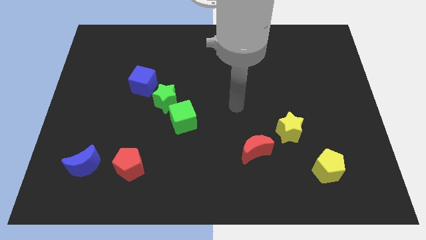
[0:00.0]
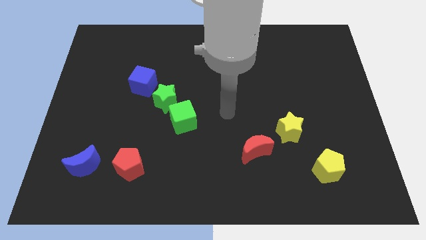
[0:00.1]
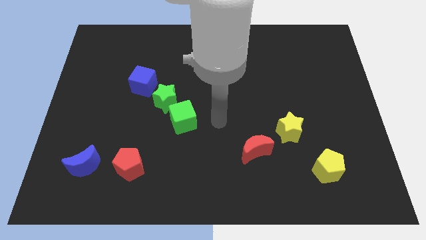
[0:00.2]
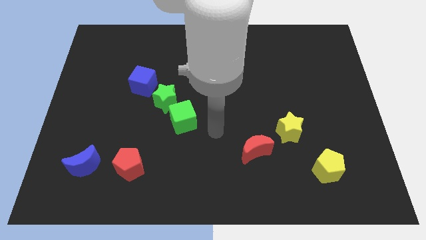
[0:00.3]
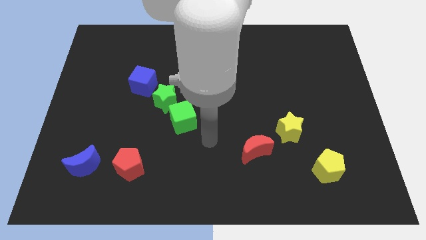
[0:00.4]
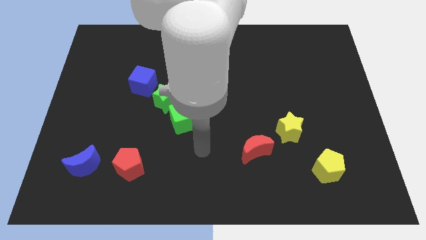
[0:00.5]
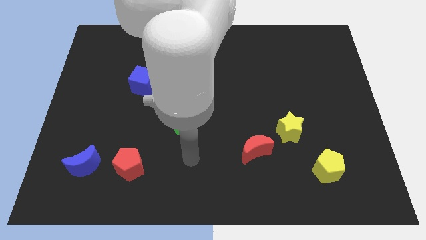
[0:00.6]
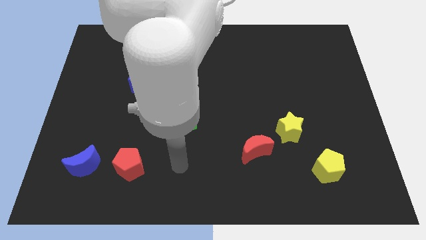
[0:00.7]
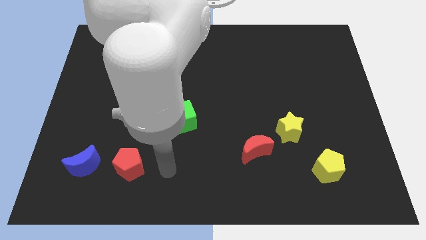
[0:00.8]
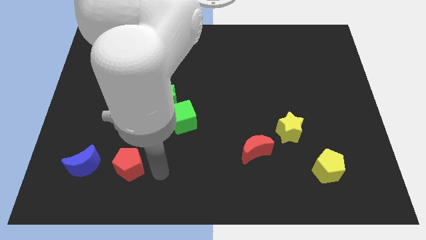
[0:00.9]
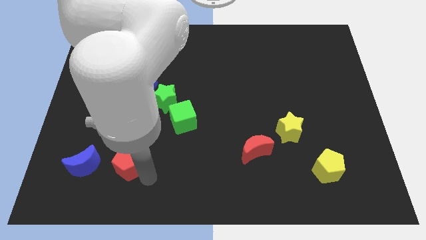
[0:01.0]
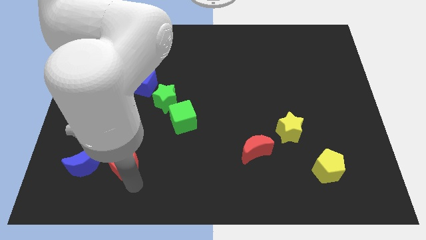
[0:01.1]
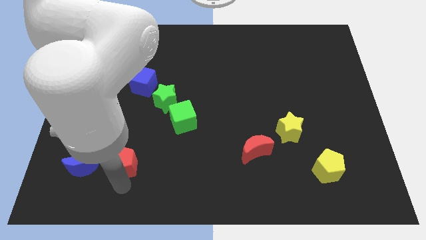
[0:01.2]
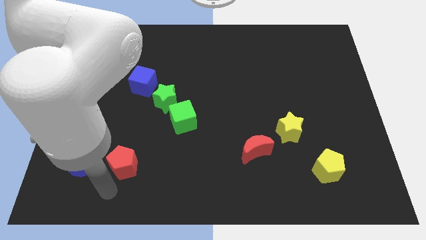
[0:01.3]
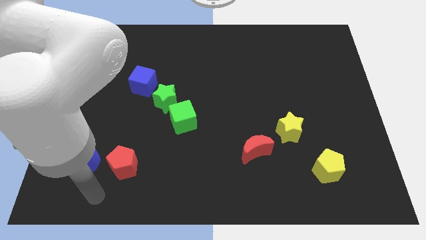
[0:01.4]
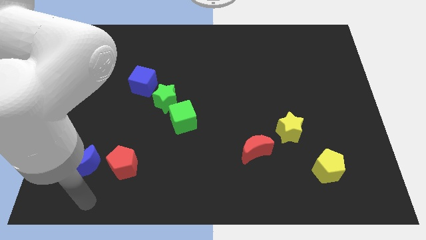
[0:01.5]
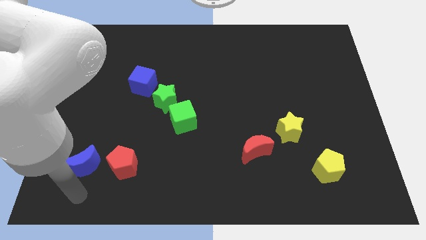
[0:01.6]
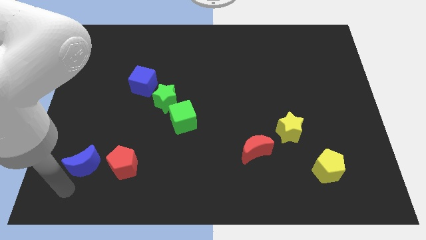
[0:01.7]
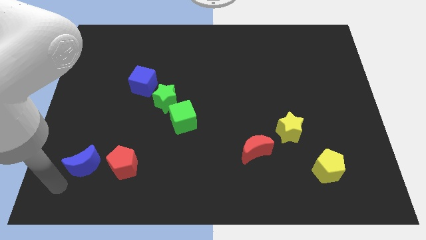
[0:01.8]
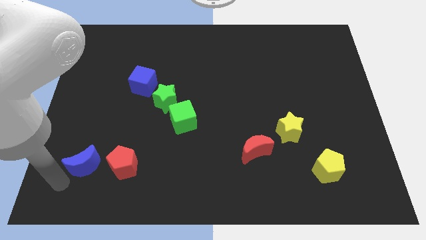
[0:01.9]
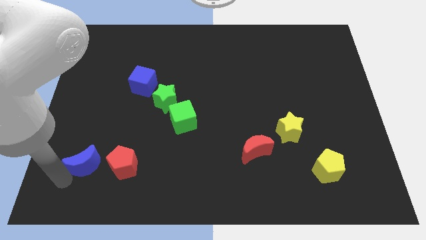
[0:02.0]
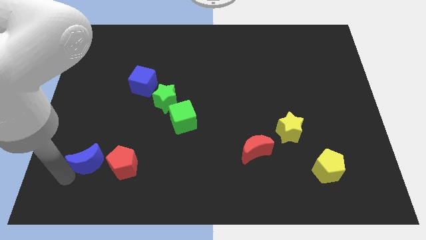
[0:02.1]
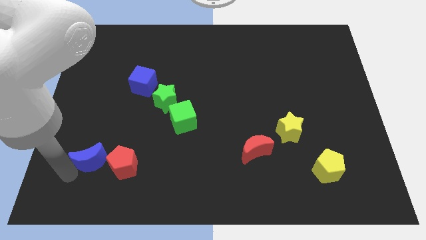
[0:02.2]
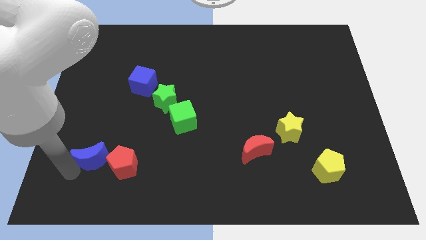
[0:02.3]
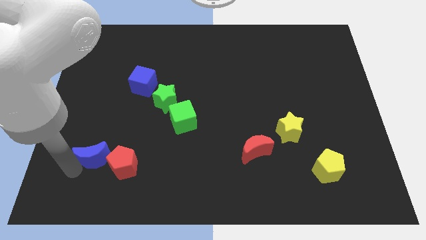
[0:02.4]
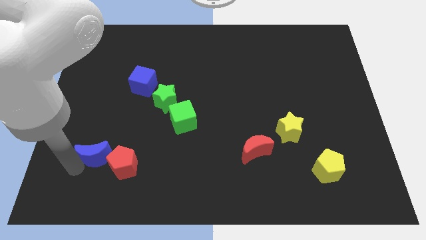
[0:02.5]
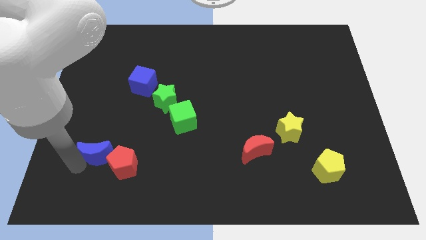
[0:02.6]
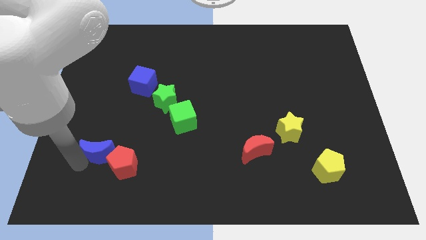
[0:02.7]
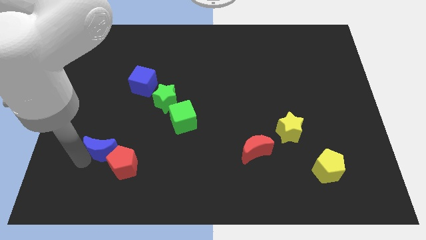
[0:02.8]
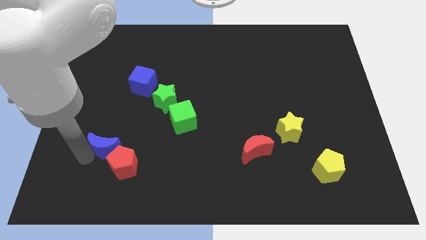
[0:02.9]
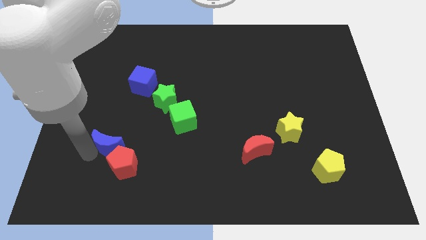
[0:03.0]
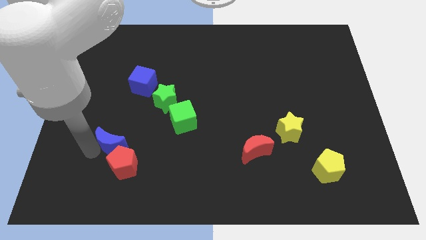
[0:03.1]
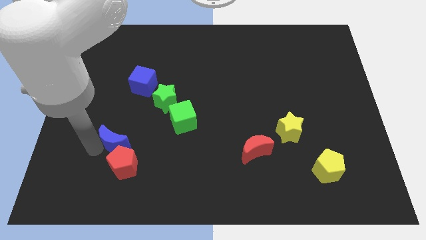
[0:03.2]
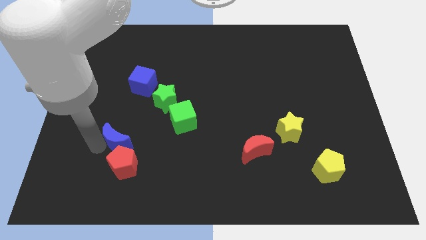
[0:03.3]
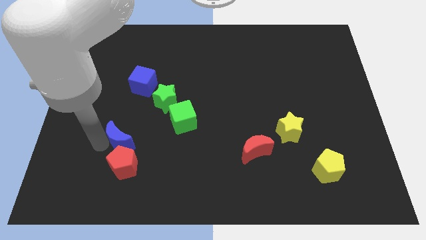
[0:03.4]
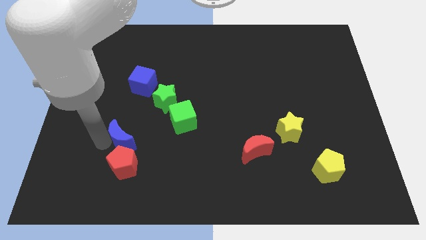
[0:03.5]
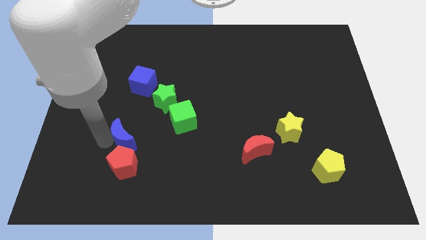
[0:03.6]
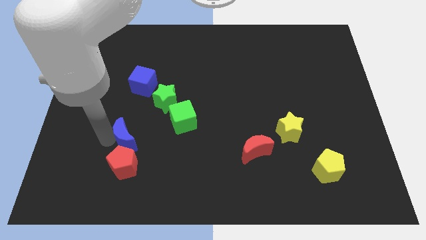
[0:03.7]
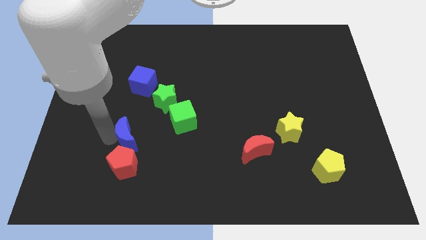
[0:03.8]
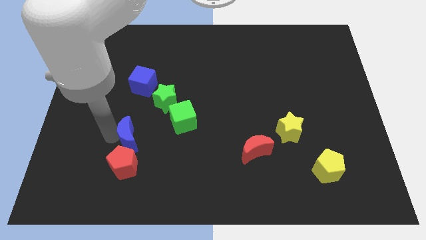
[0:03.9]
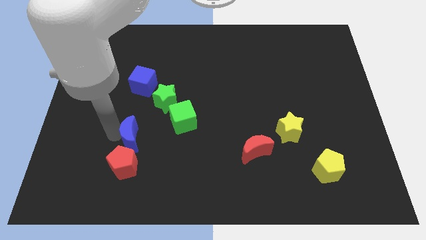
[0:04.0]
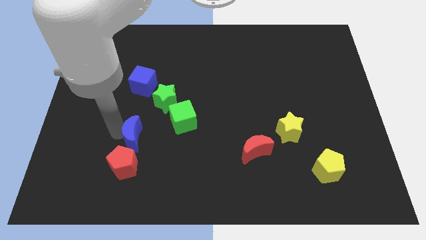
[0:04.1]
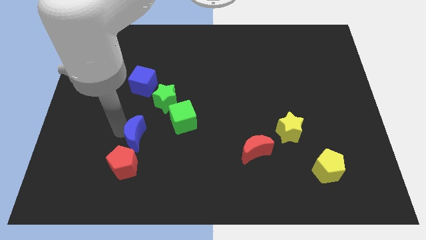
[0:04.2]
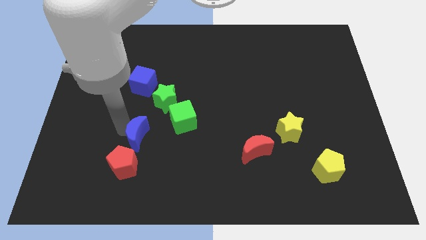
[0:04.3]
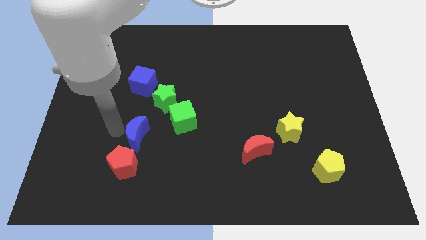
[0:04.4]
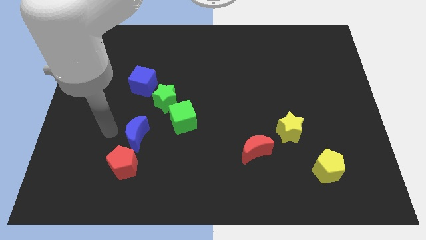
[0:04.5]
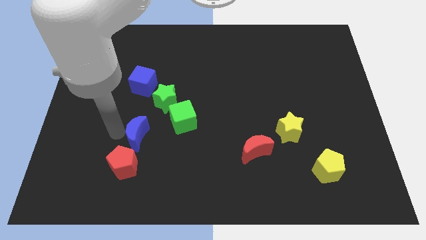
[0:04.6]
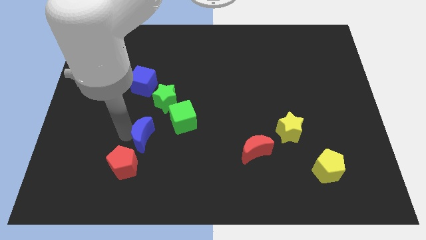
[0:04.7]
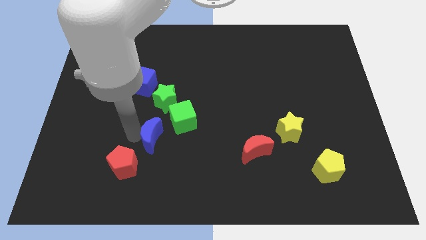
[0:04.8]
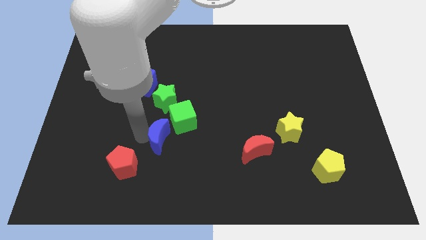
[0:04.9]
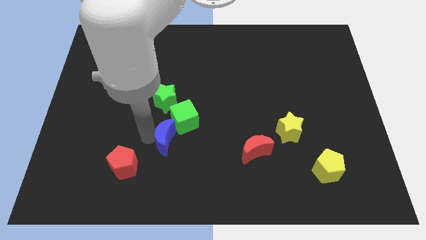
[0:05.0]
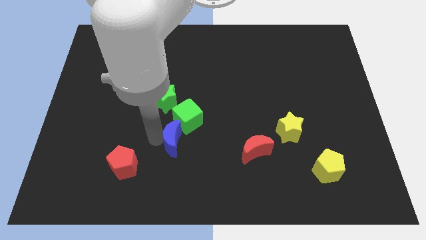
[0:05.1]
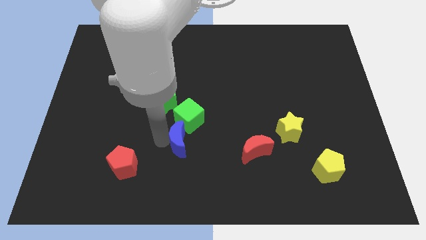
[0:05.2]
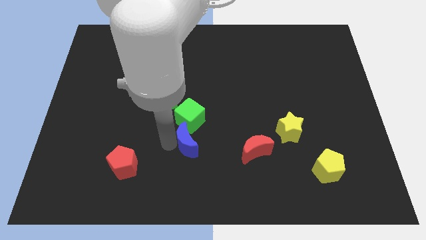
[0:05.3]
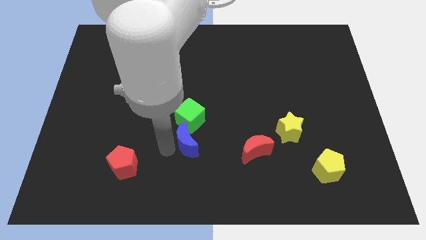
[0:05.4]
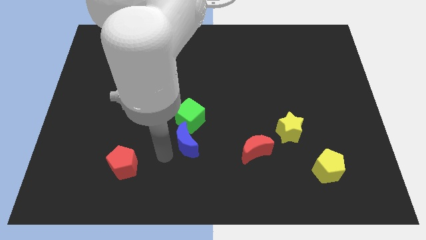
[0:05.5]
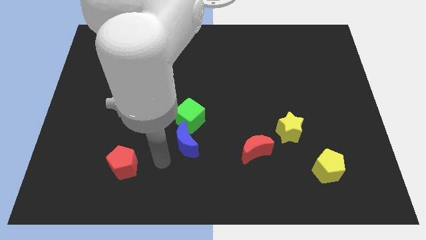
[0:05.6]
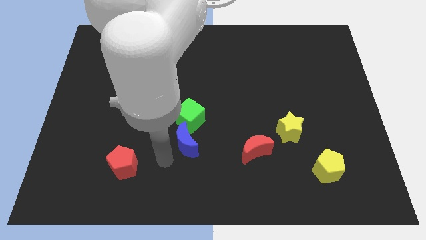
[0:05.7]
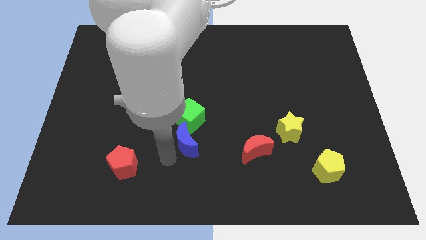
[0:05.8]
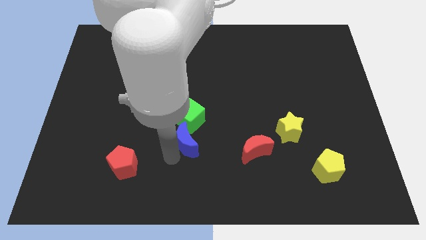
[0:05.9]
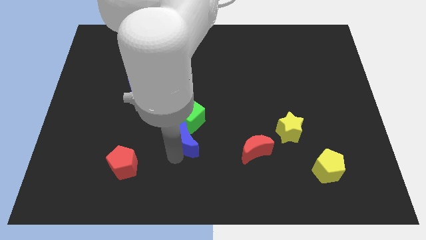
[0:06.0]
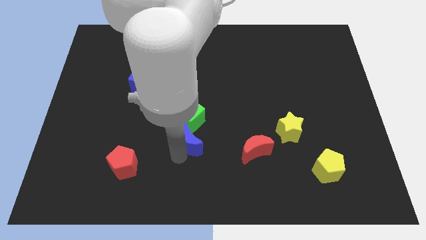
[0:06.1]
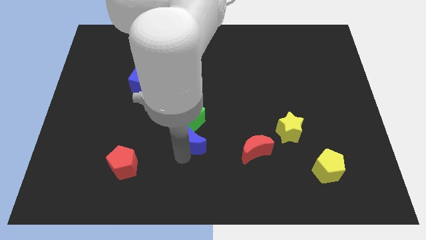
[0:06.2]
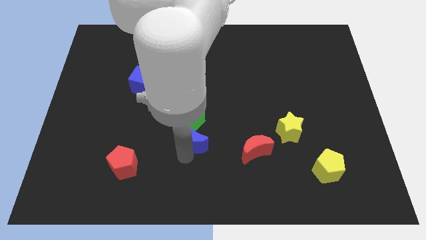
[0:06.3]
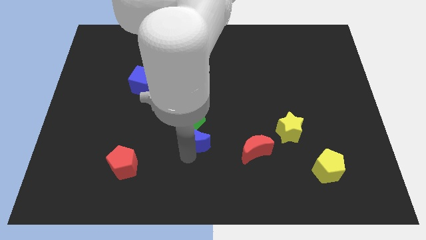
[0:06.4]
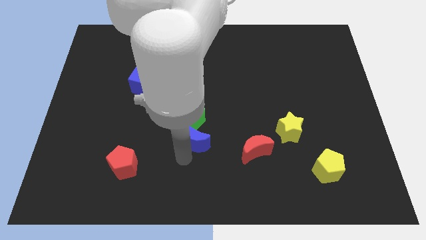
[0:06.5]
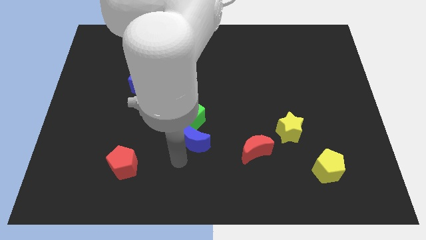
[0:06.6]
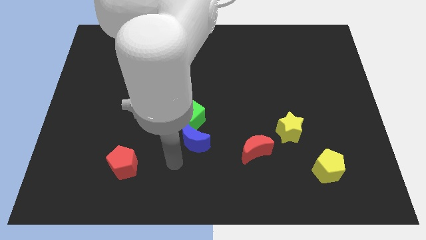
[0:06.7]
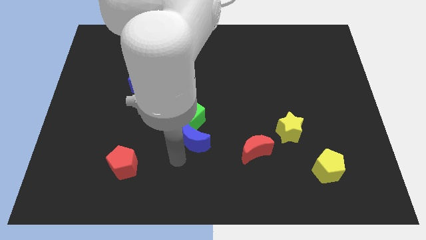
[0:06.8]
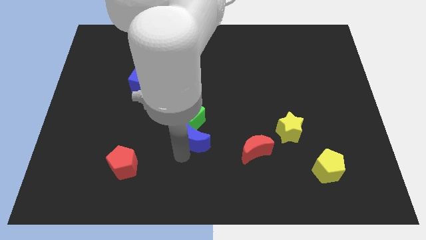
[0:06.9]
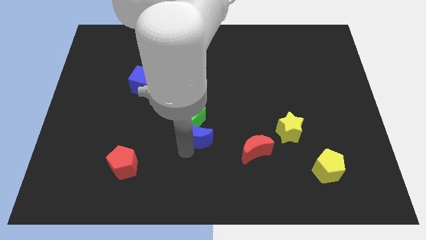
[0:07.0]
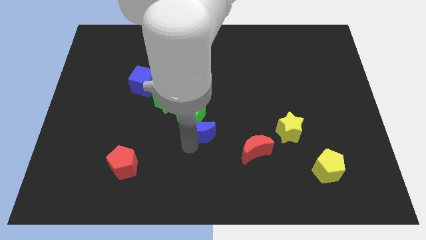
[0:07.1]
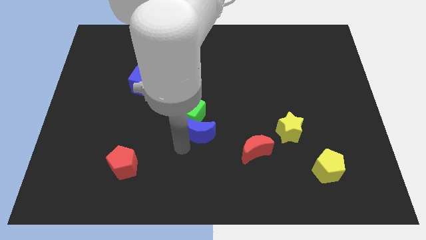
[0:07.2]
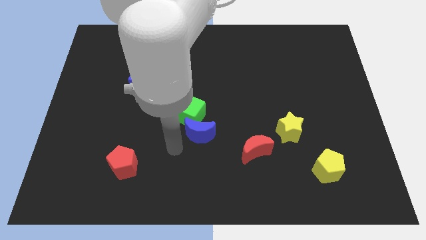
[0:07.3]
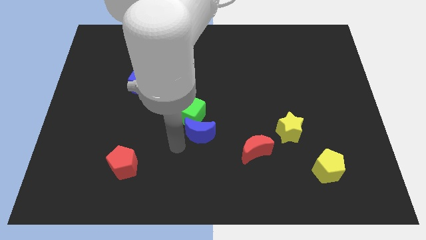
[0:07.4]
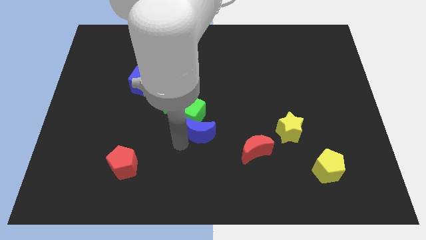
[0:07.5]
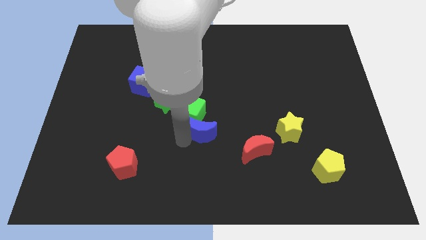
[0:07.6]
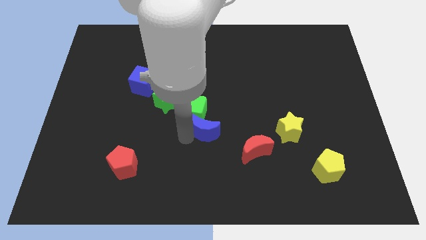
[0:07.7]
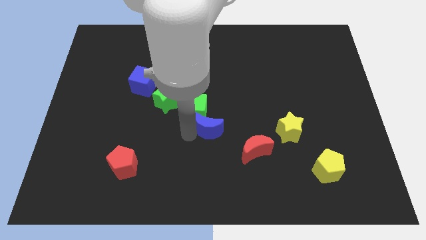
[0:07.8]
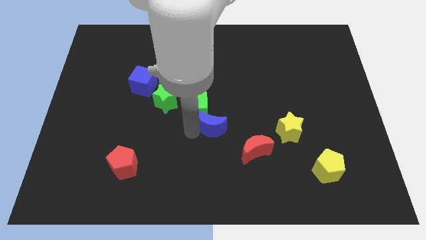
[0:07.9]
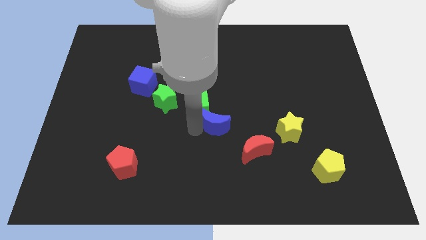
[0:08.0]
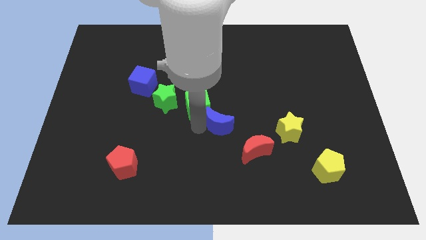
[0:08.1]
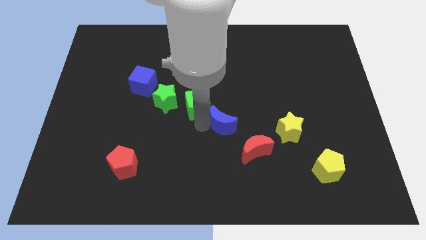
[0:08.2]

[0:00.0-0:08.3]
put the blue moon just right of the green cube
